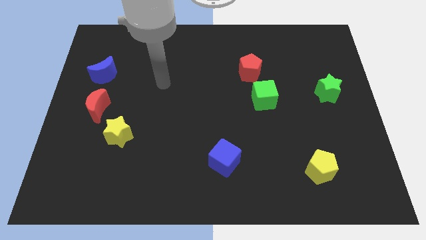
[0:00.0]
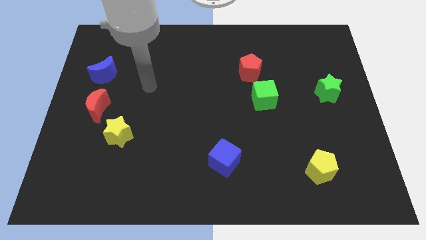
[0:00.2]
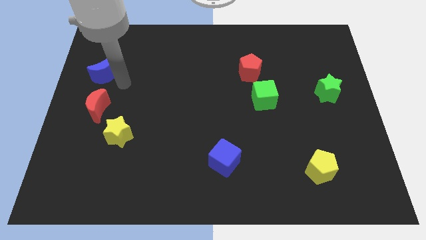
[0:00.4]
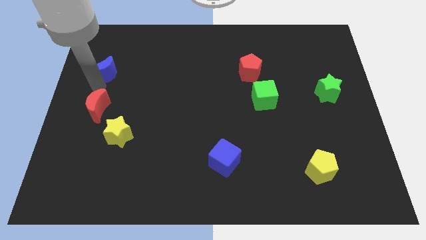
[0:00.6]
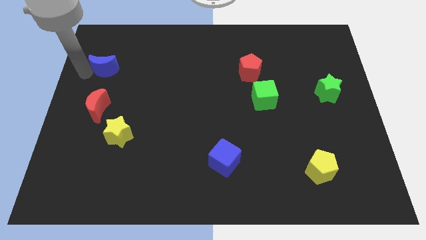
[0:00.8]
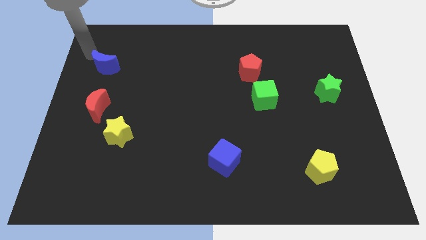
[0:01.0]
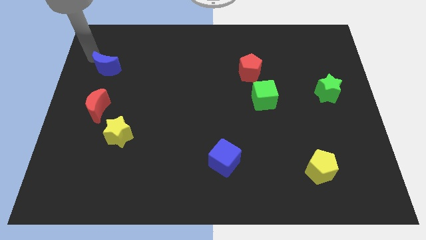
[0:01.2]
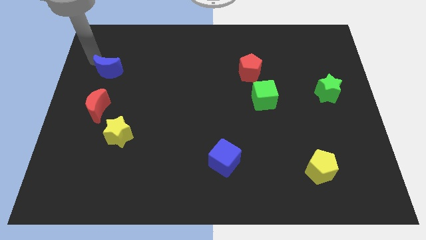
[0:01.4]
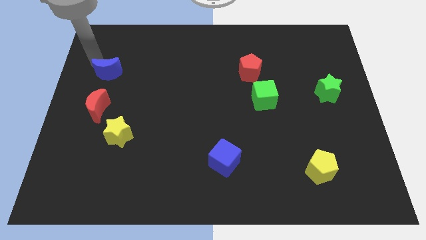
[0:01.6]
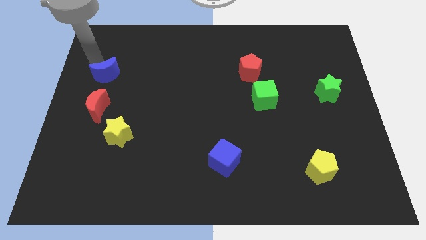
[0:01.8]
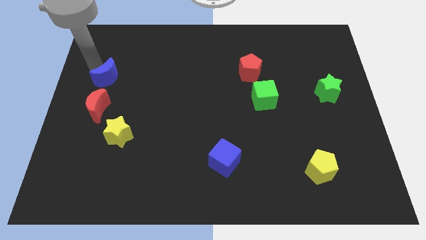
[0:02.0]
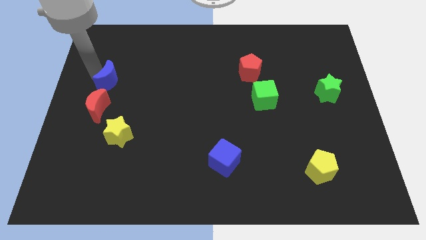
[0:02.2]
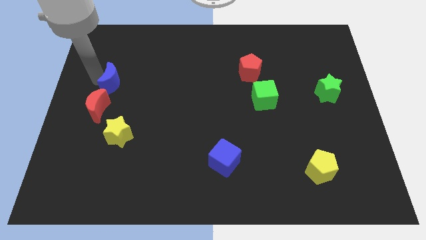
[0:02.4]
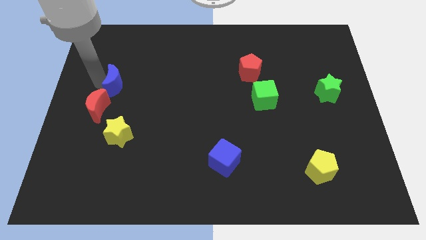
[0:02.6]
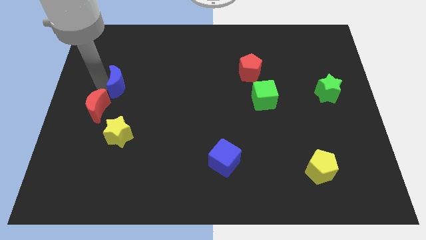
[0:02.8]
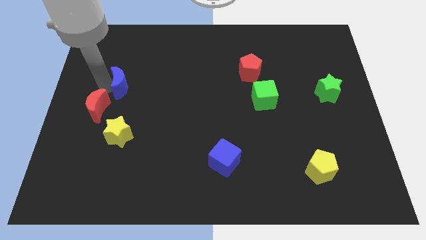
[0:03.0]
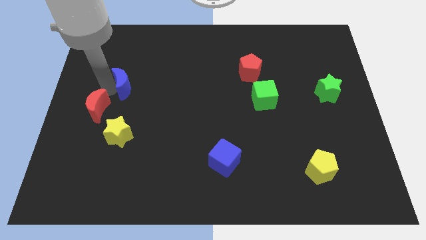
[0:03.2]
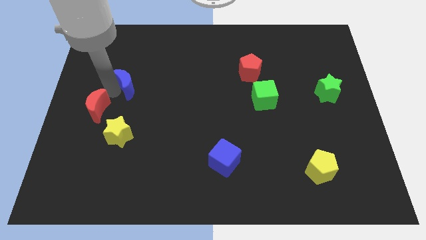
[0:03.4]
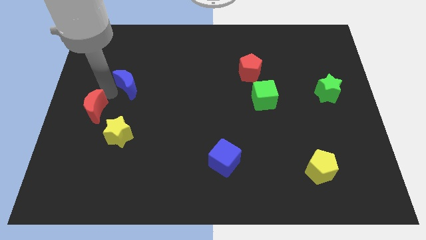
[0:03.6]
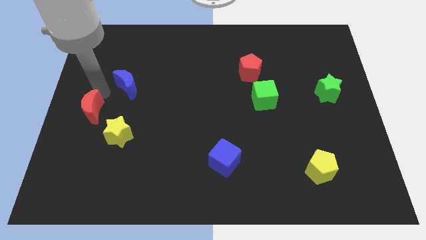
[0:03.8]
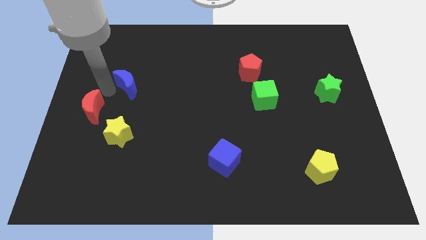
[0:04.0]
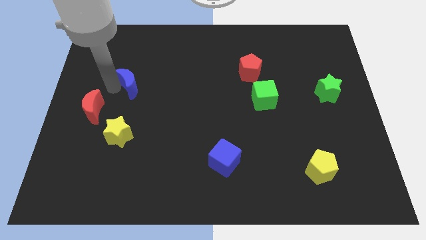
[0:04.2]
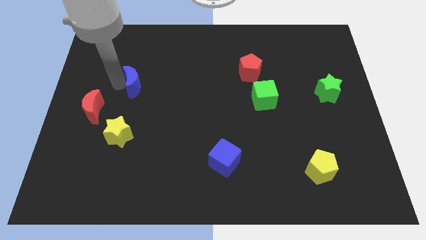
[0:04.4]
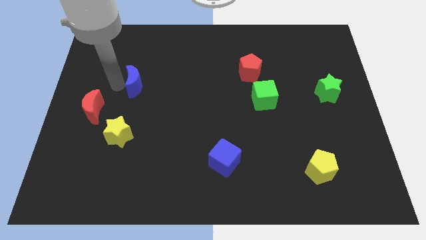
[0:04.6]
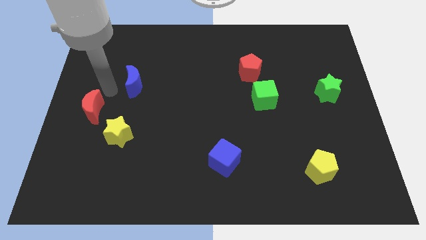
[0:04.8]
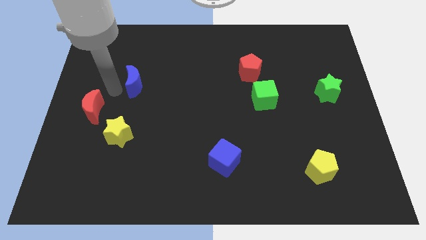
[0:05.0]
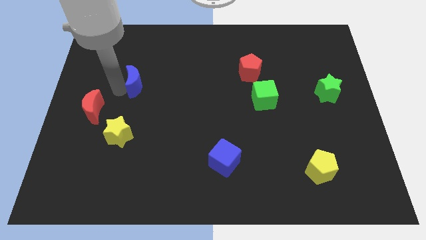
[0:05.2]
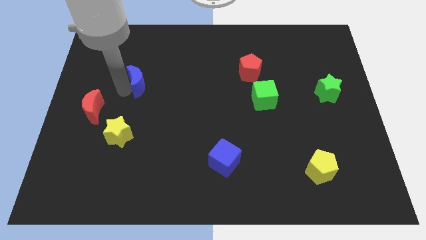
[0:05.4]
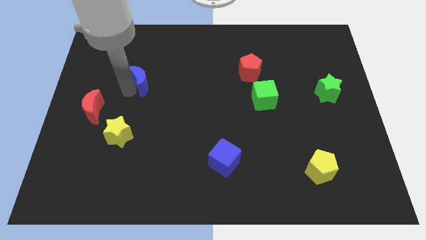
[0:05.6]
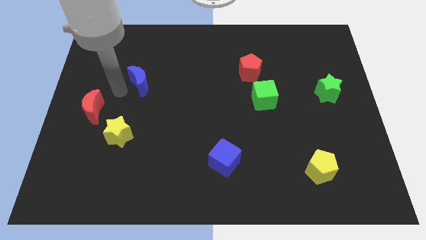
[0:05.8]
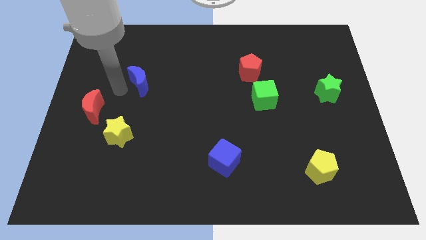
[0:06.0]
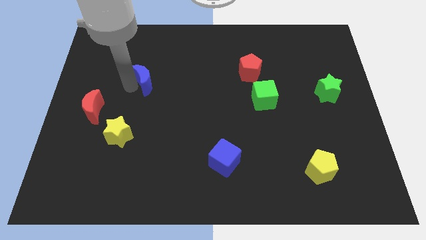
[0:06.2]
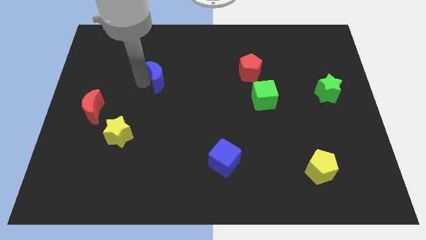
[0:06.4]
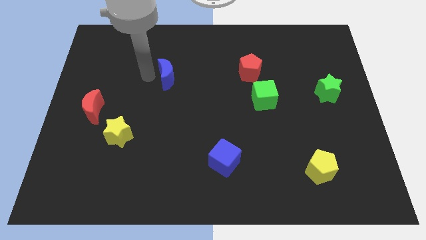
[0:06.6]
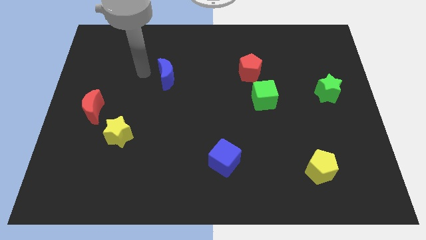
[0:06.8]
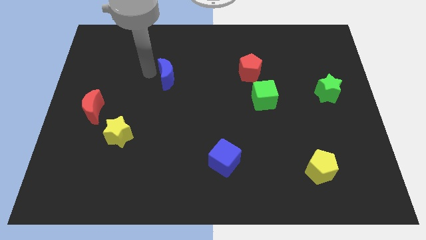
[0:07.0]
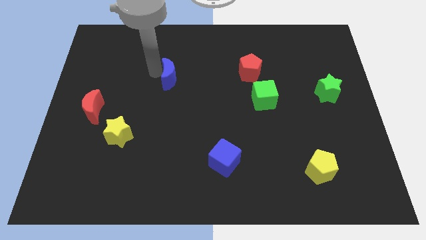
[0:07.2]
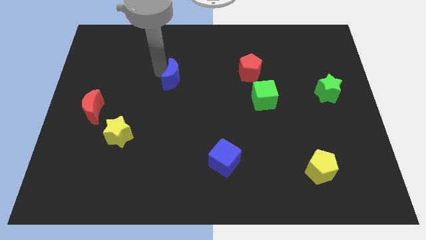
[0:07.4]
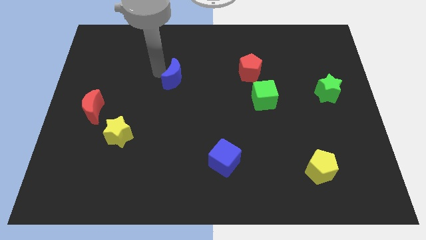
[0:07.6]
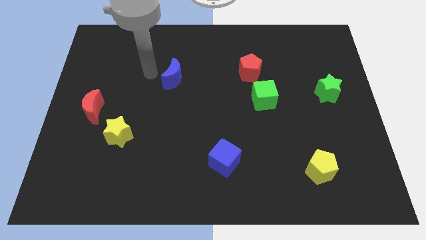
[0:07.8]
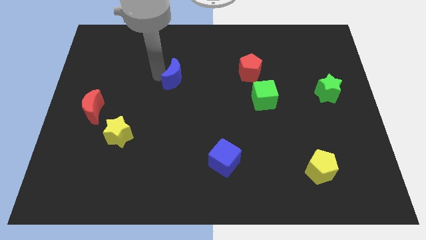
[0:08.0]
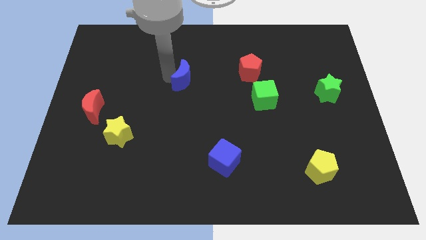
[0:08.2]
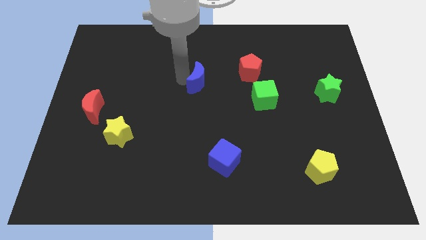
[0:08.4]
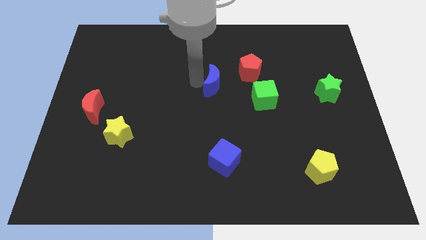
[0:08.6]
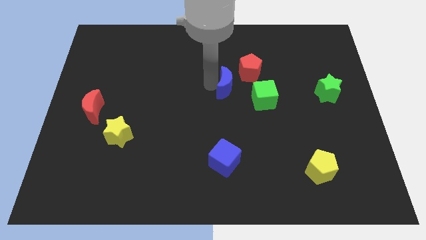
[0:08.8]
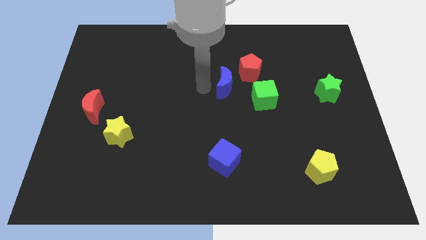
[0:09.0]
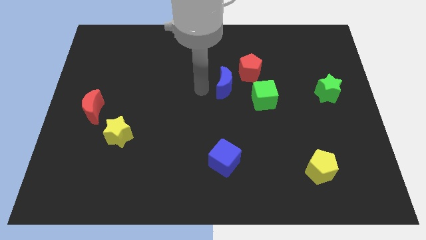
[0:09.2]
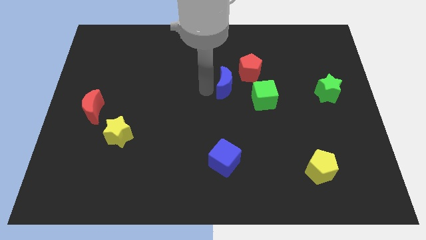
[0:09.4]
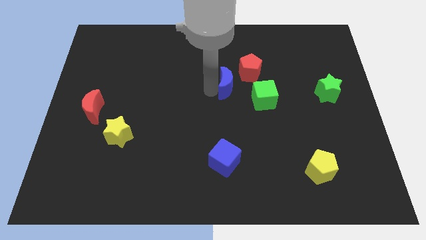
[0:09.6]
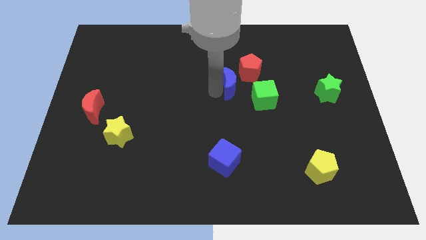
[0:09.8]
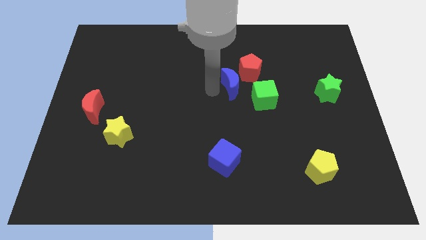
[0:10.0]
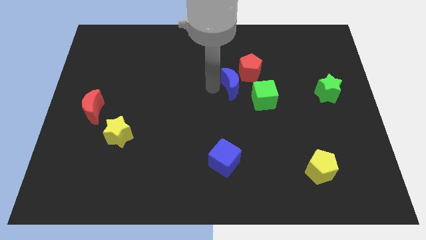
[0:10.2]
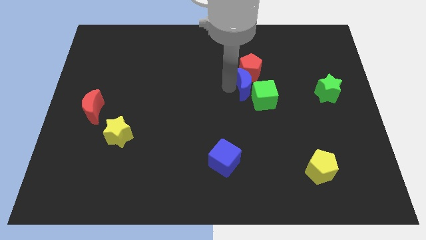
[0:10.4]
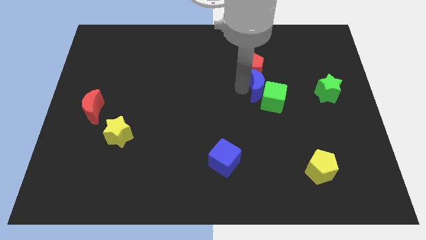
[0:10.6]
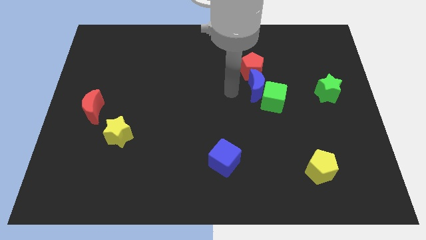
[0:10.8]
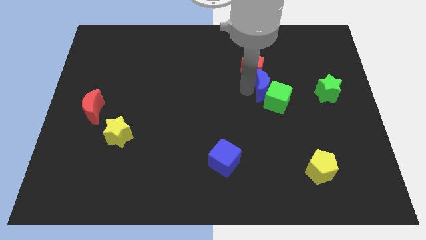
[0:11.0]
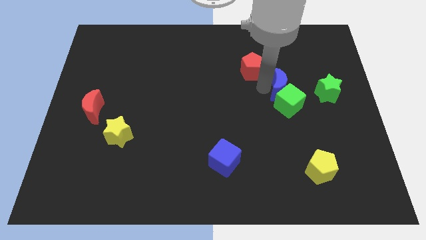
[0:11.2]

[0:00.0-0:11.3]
move the blue moon diagonally up and to the right of the green cube

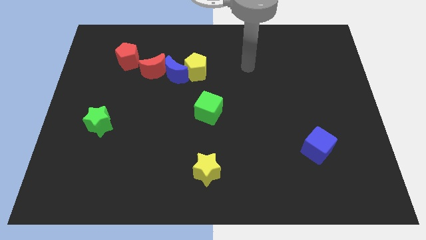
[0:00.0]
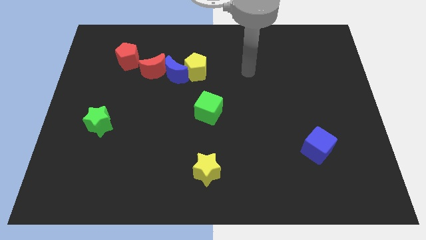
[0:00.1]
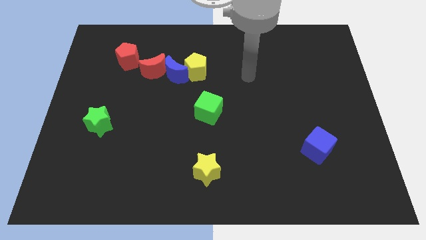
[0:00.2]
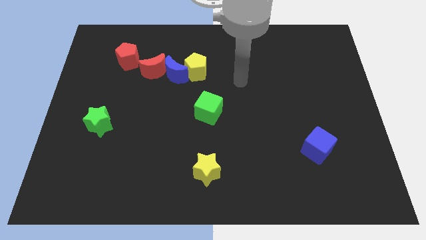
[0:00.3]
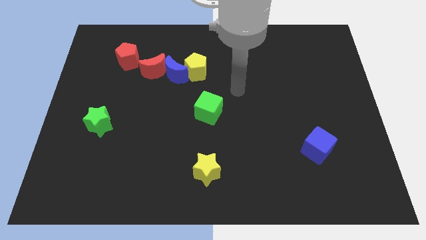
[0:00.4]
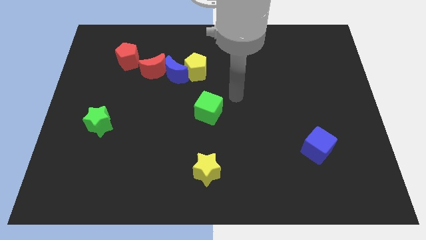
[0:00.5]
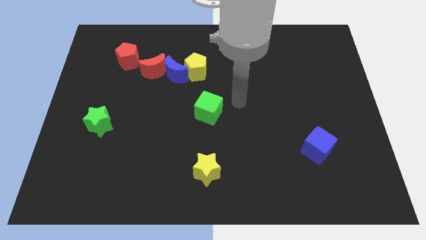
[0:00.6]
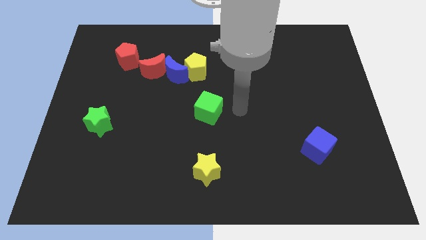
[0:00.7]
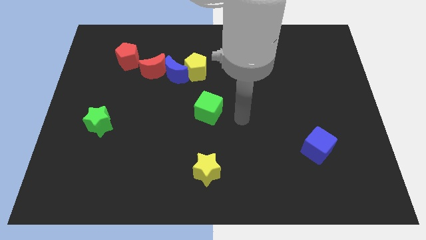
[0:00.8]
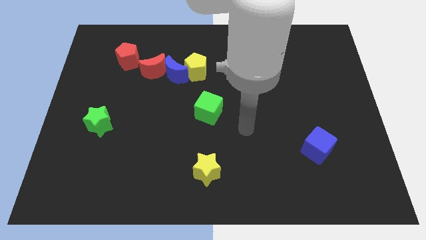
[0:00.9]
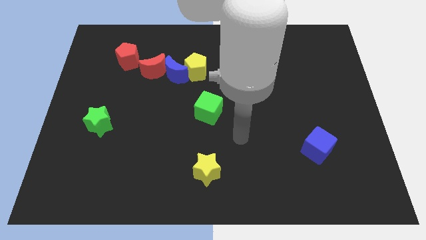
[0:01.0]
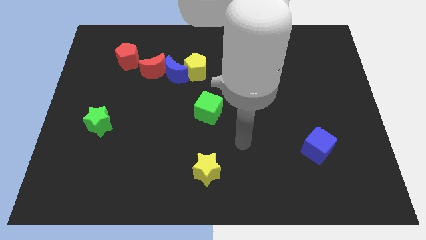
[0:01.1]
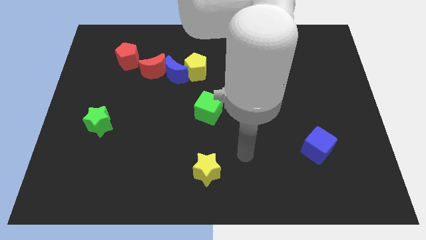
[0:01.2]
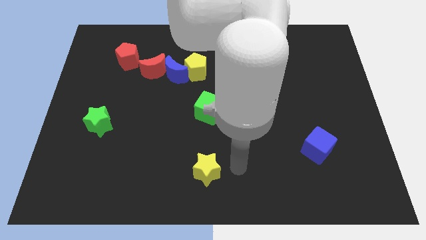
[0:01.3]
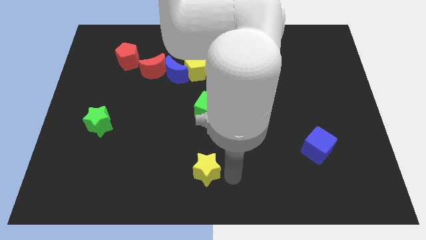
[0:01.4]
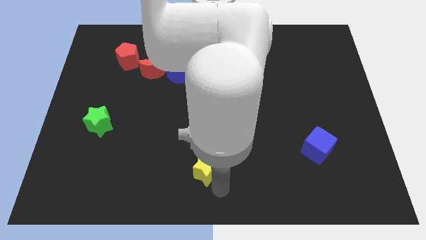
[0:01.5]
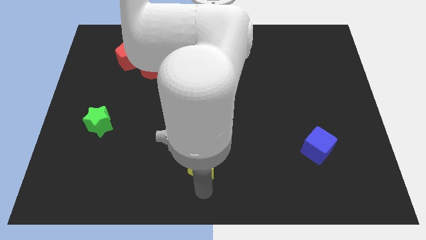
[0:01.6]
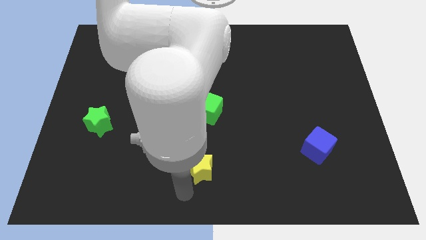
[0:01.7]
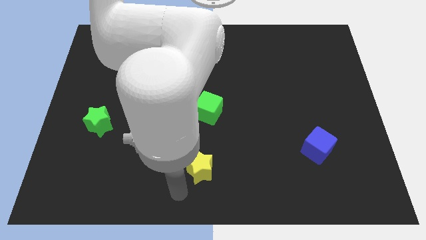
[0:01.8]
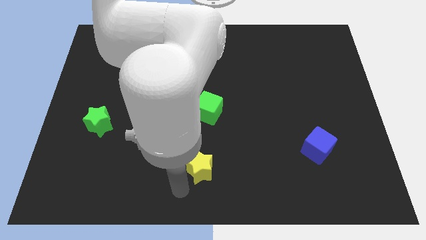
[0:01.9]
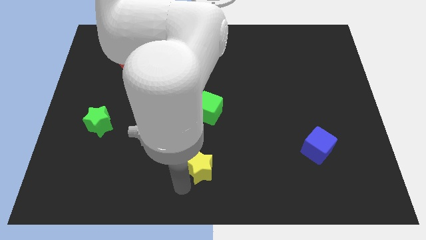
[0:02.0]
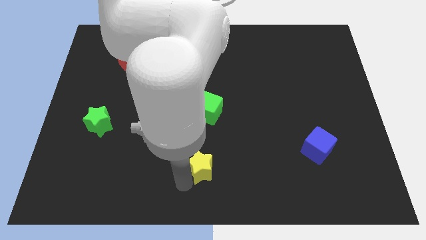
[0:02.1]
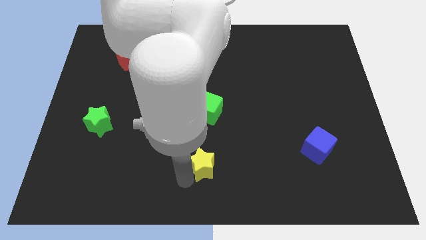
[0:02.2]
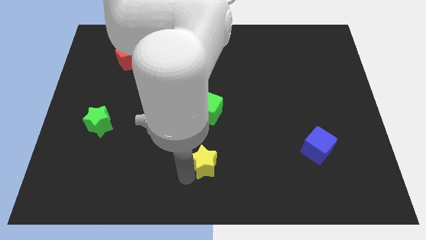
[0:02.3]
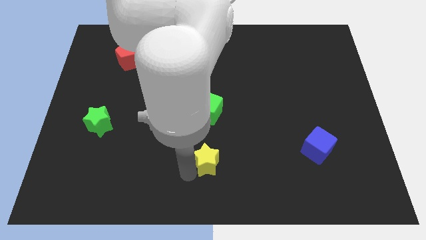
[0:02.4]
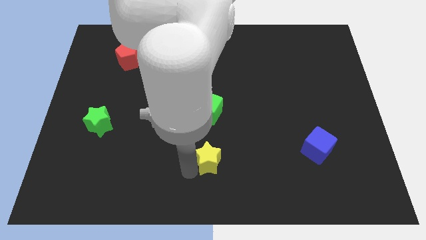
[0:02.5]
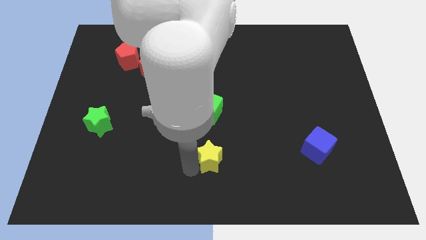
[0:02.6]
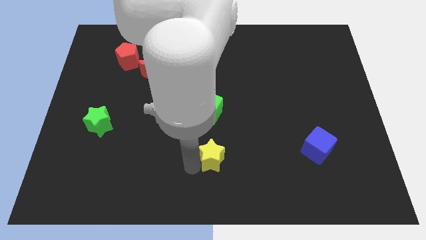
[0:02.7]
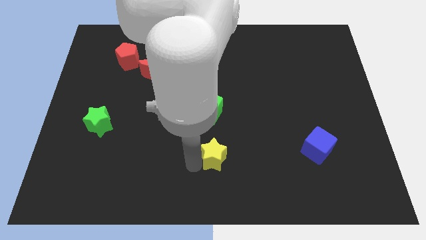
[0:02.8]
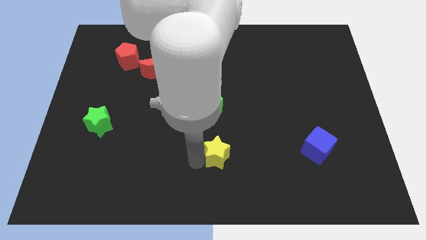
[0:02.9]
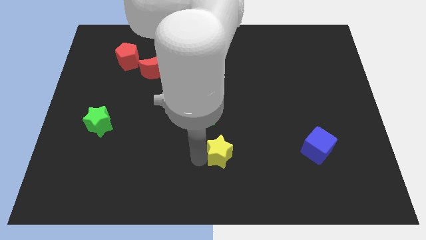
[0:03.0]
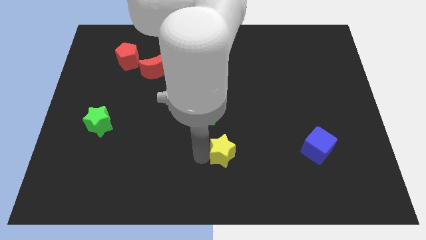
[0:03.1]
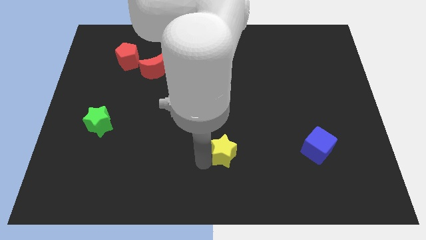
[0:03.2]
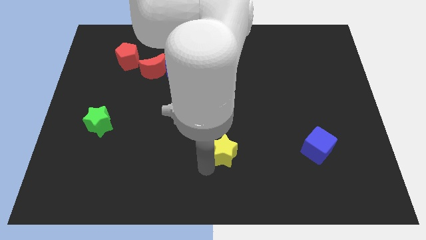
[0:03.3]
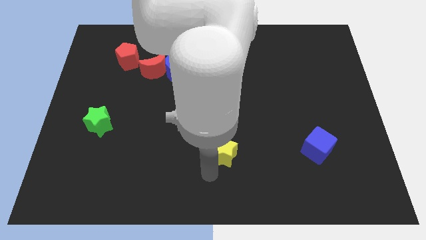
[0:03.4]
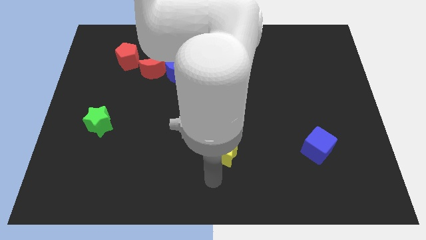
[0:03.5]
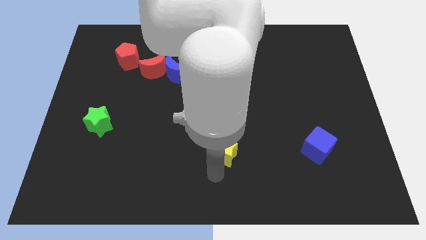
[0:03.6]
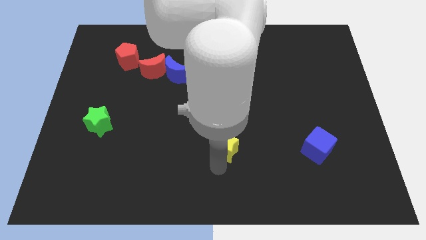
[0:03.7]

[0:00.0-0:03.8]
put the yellow star diagonally down and to the right of the green cube
